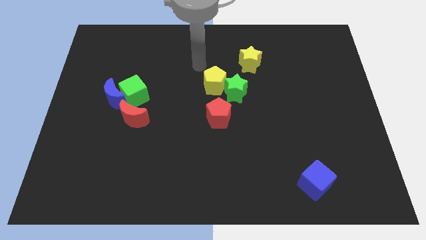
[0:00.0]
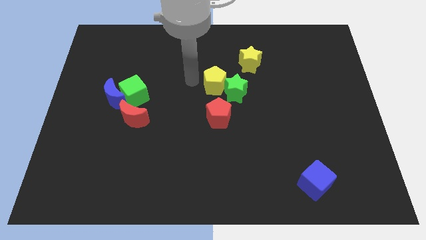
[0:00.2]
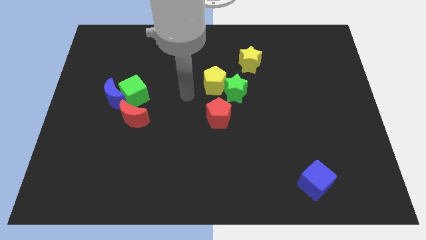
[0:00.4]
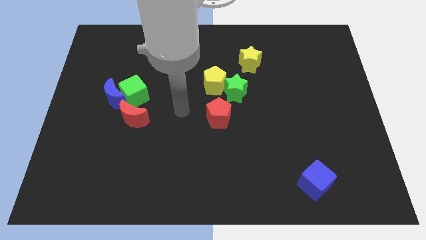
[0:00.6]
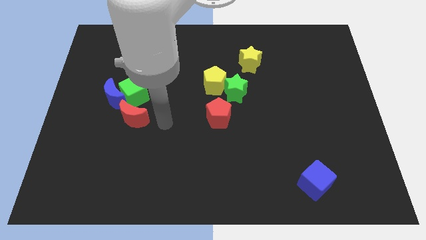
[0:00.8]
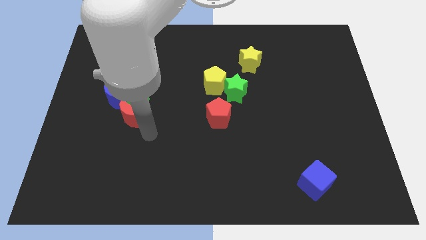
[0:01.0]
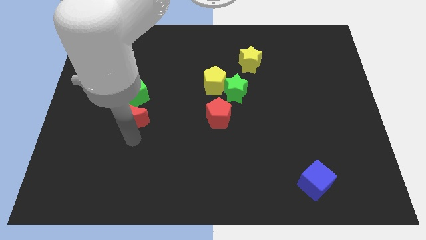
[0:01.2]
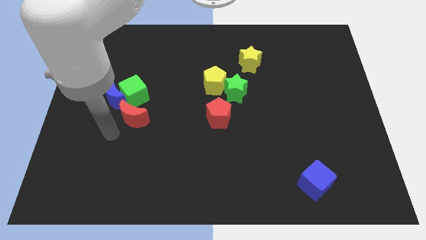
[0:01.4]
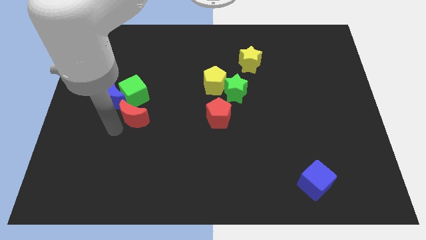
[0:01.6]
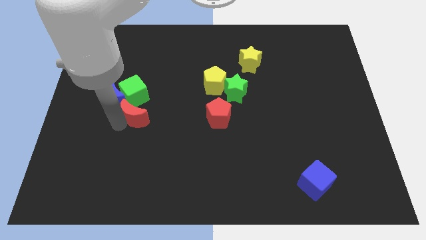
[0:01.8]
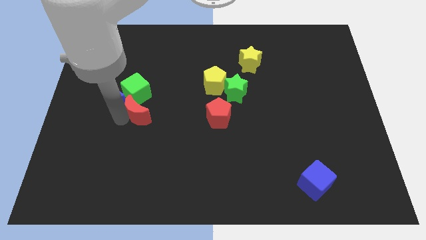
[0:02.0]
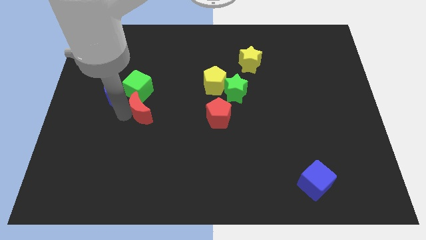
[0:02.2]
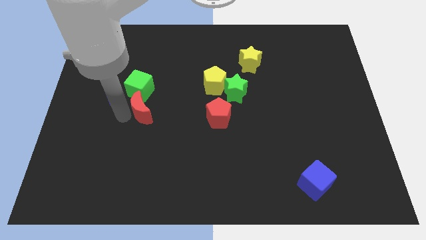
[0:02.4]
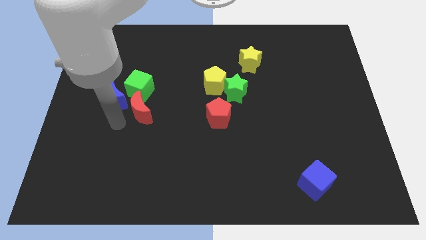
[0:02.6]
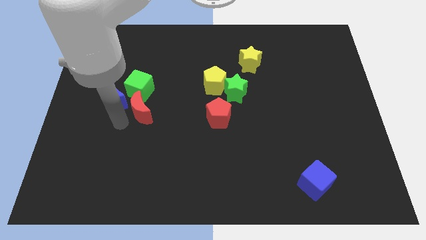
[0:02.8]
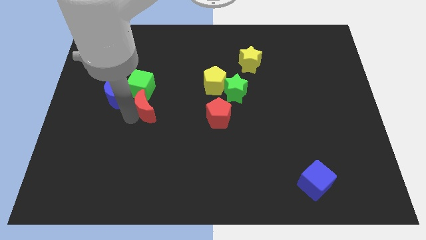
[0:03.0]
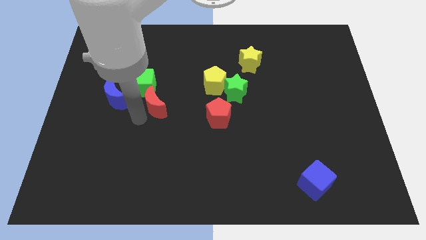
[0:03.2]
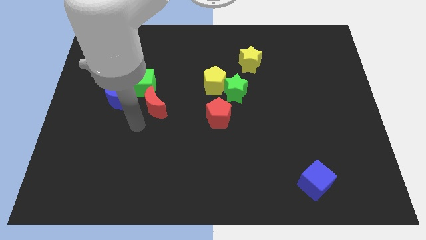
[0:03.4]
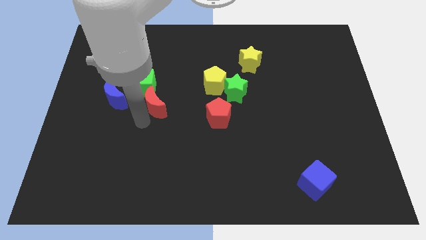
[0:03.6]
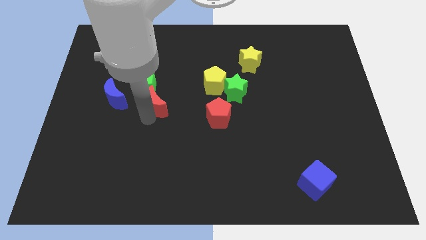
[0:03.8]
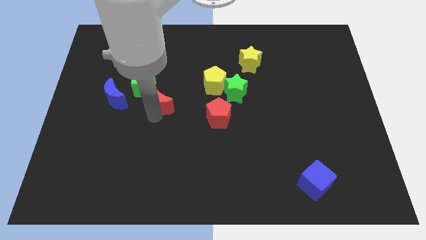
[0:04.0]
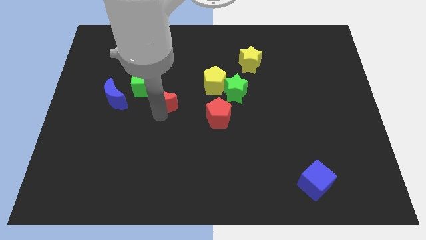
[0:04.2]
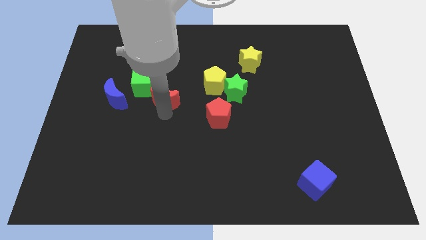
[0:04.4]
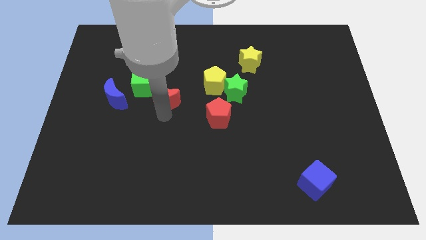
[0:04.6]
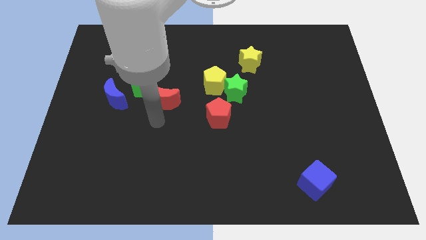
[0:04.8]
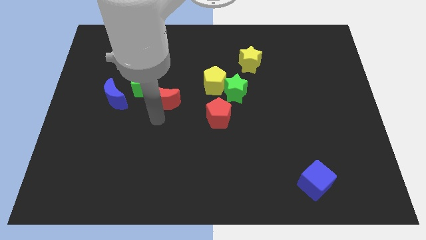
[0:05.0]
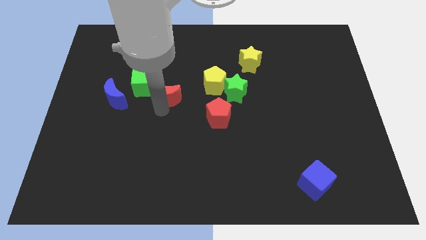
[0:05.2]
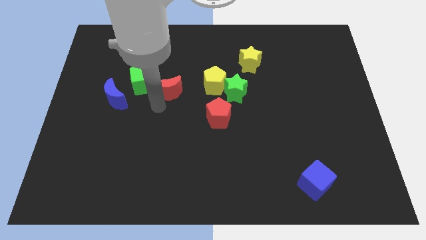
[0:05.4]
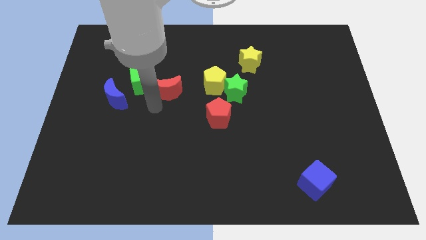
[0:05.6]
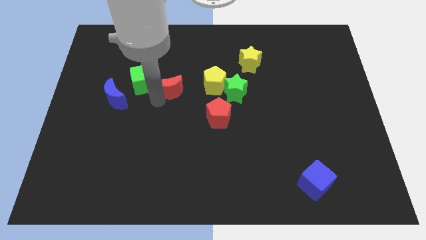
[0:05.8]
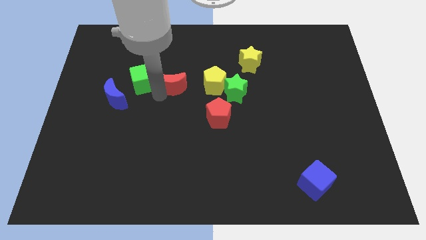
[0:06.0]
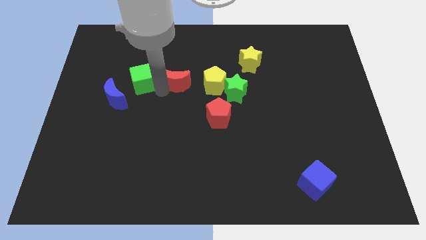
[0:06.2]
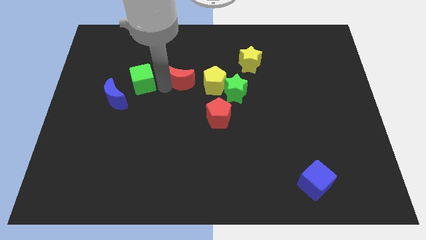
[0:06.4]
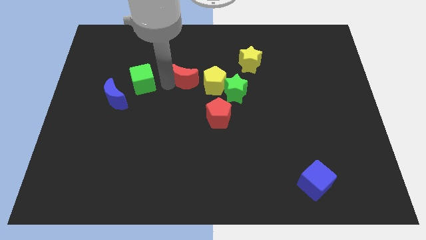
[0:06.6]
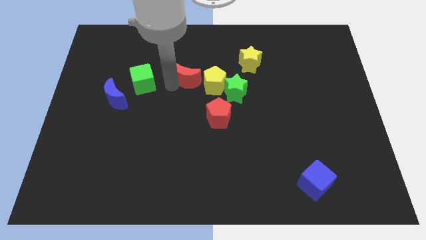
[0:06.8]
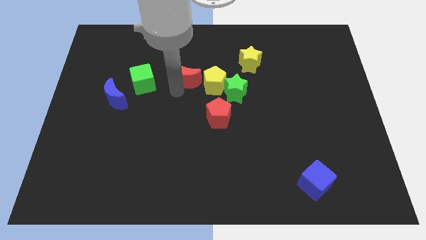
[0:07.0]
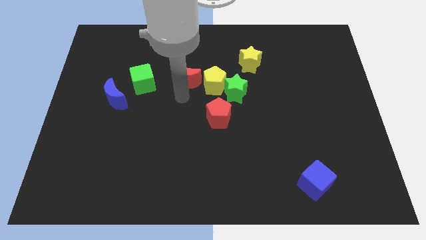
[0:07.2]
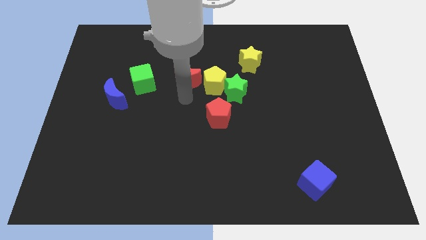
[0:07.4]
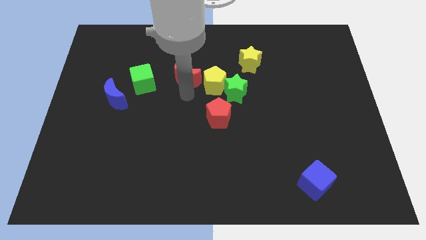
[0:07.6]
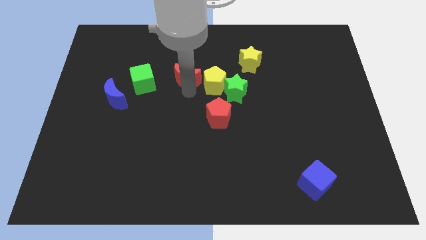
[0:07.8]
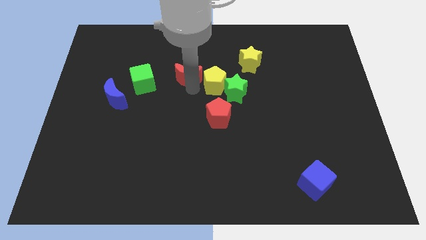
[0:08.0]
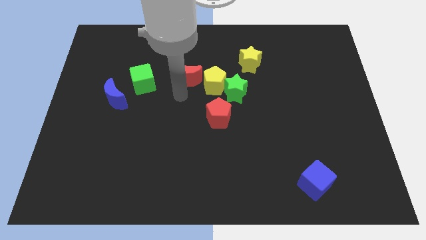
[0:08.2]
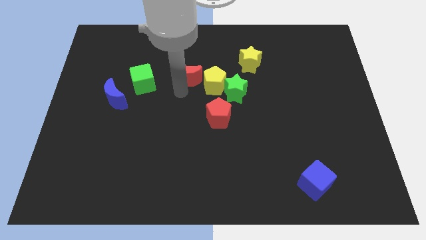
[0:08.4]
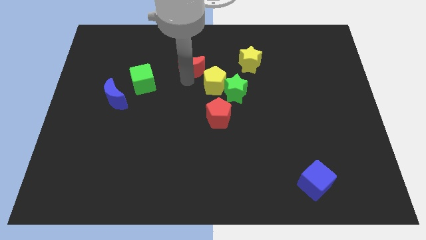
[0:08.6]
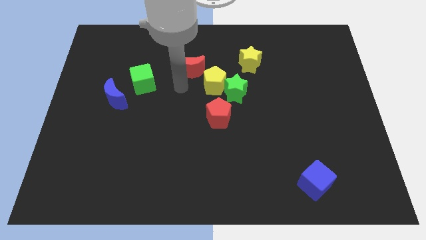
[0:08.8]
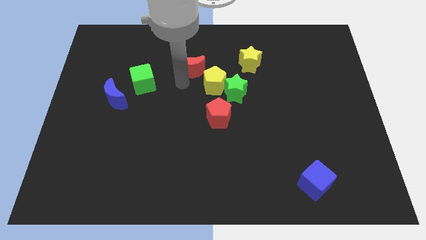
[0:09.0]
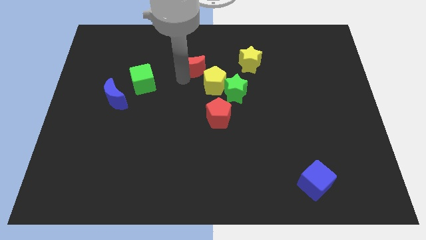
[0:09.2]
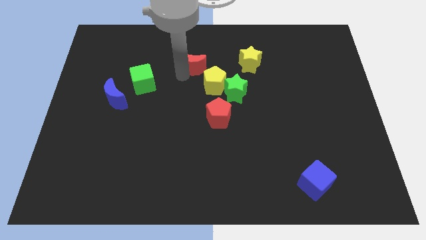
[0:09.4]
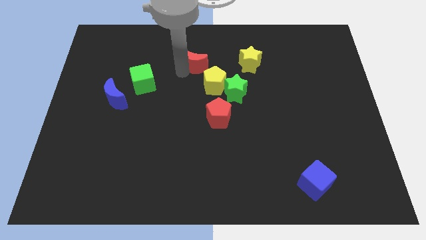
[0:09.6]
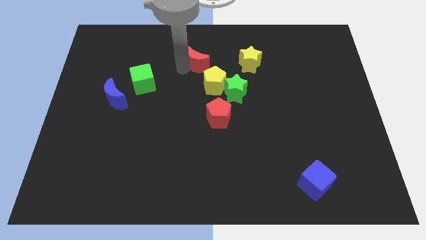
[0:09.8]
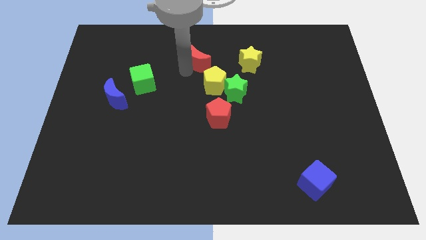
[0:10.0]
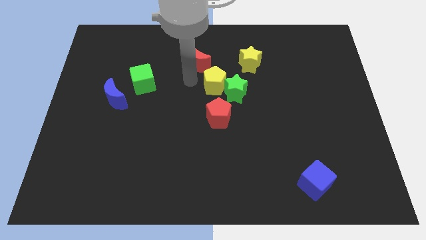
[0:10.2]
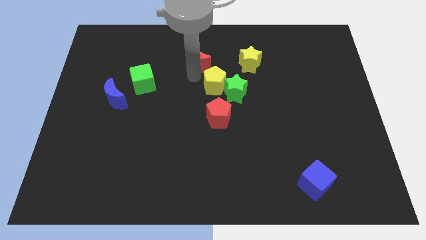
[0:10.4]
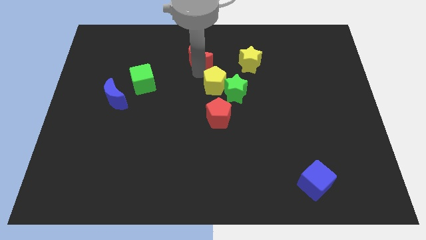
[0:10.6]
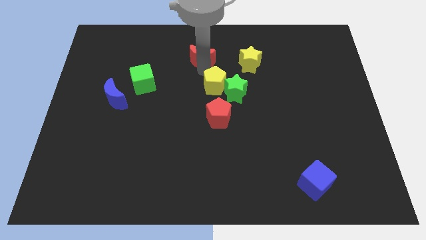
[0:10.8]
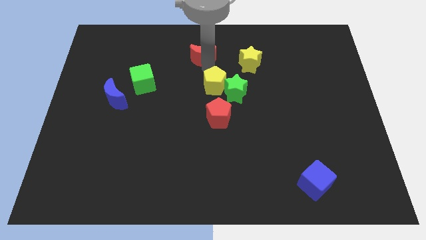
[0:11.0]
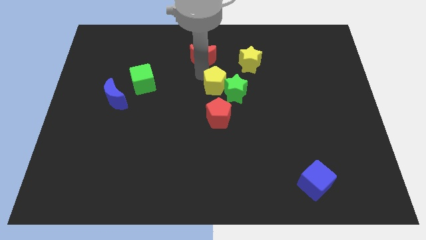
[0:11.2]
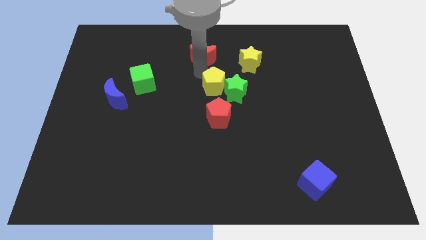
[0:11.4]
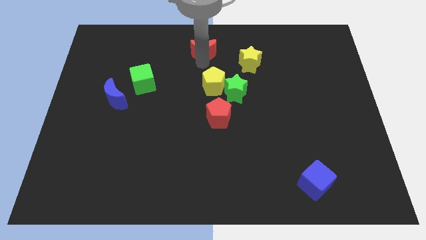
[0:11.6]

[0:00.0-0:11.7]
push the red moon to the top side
